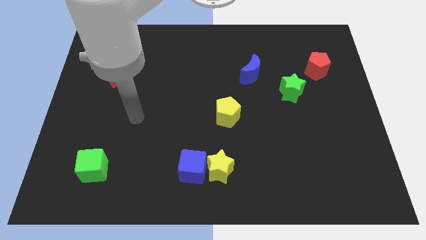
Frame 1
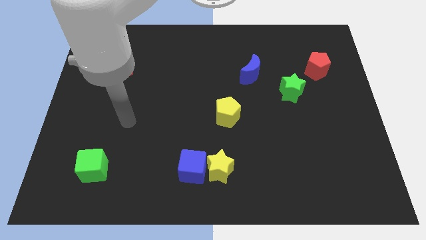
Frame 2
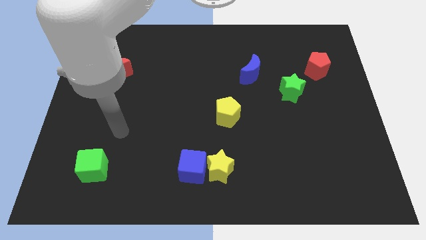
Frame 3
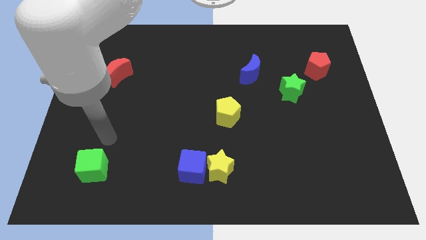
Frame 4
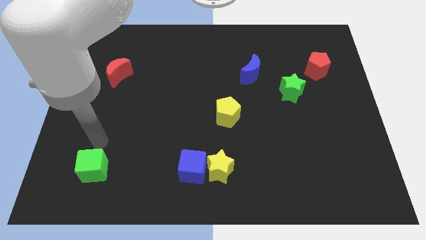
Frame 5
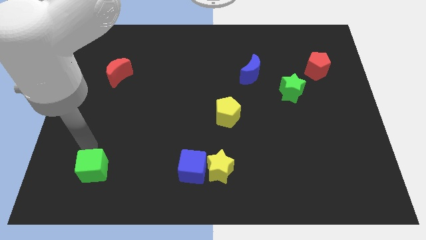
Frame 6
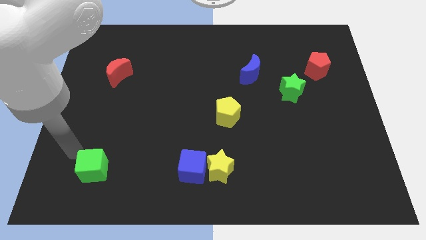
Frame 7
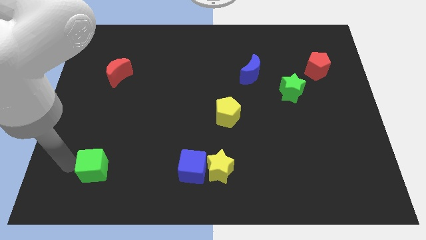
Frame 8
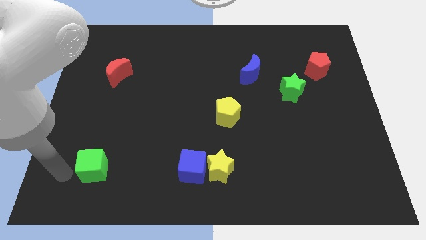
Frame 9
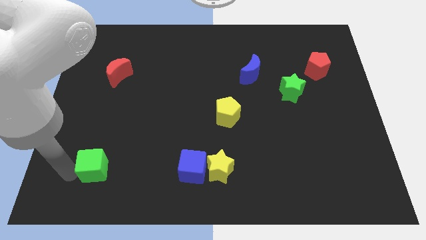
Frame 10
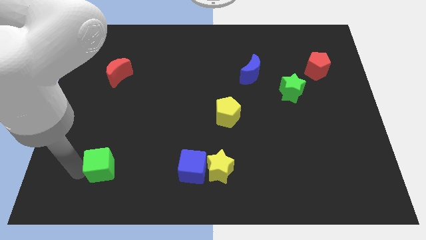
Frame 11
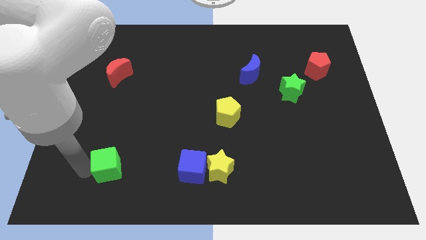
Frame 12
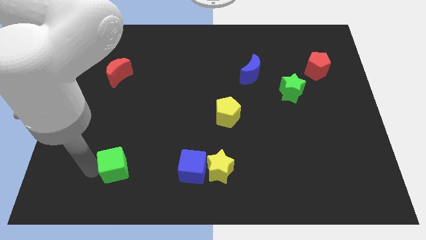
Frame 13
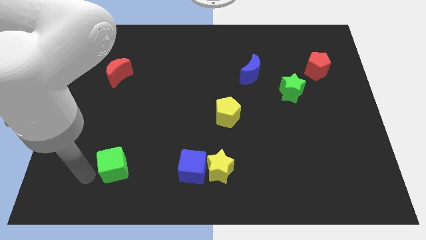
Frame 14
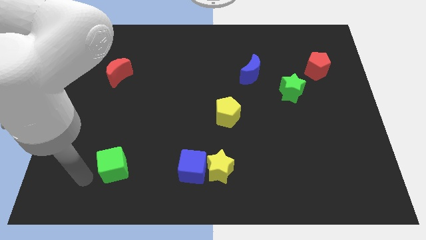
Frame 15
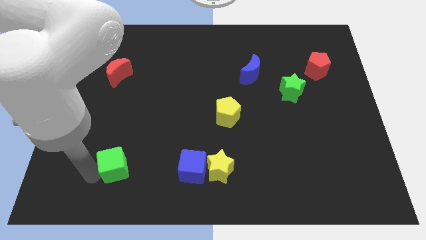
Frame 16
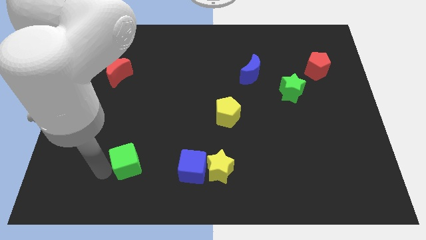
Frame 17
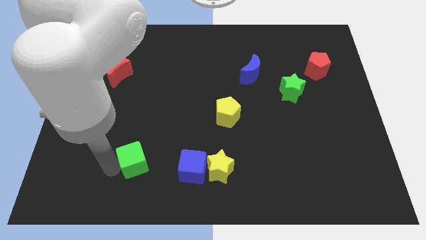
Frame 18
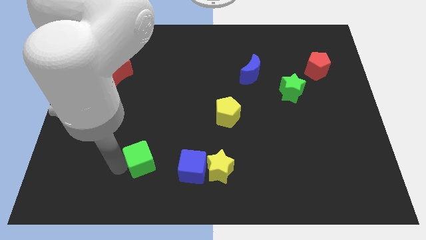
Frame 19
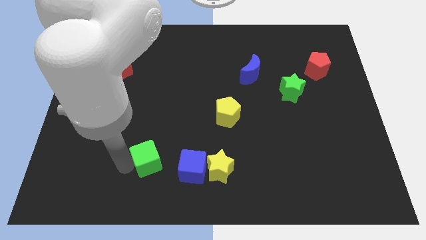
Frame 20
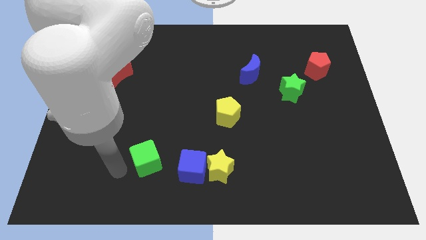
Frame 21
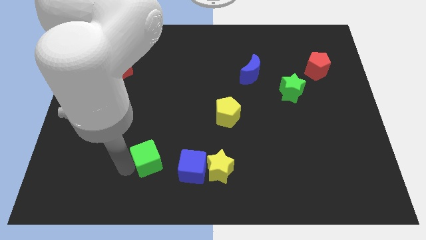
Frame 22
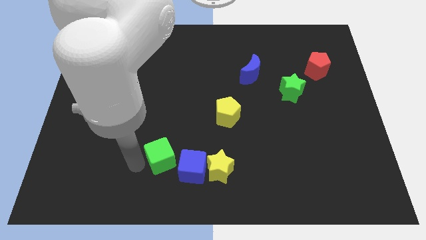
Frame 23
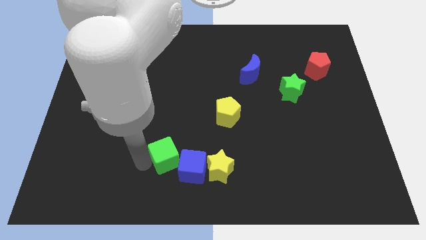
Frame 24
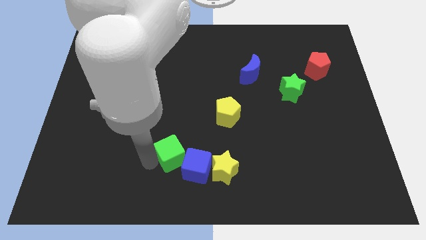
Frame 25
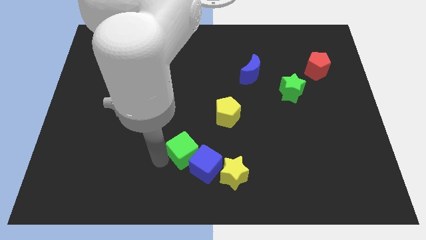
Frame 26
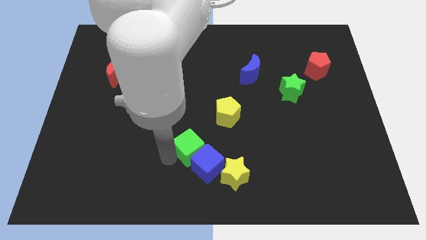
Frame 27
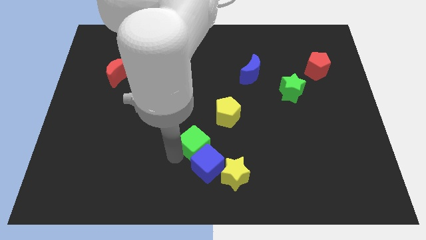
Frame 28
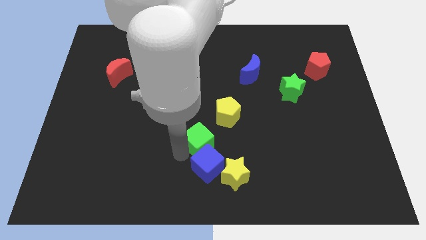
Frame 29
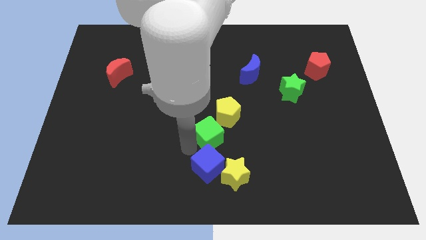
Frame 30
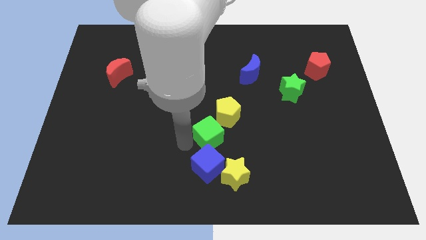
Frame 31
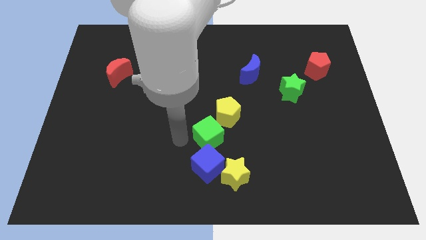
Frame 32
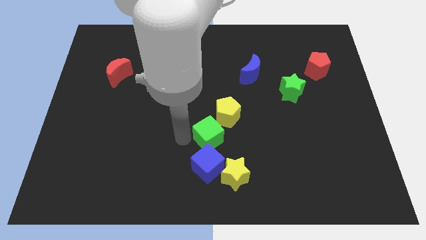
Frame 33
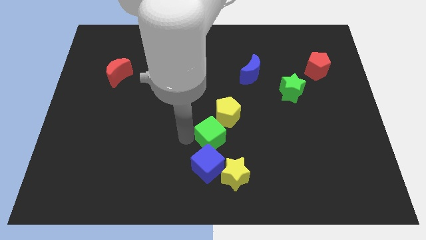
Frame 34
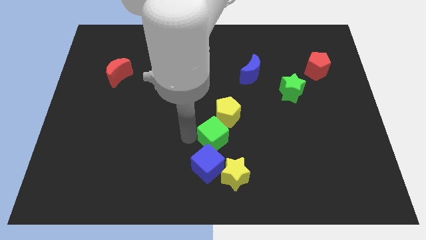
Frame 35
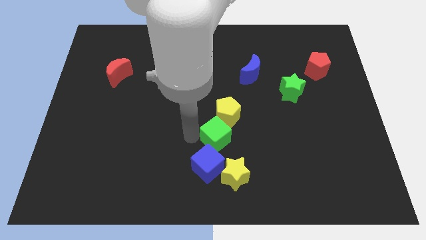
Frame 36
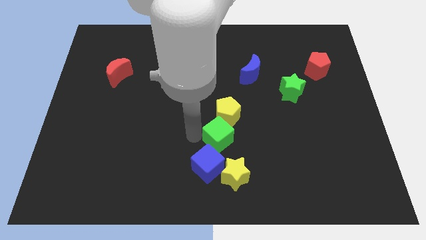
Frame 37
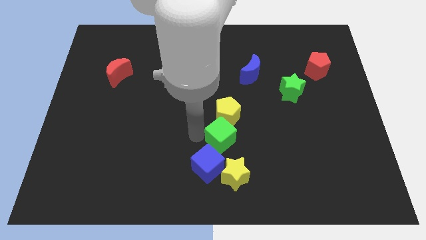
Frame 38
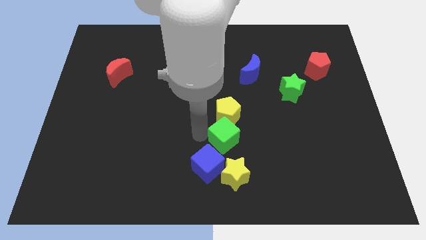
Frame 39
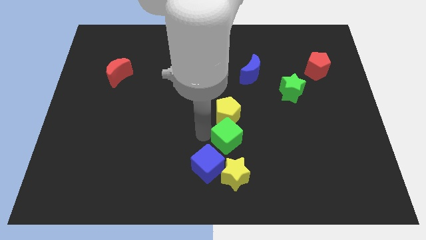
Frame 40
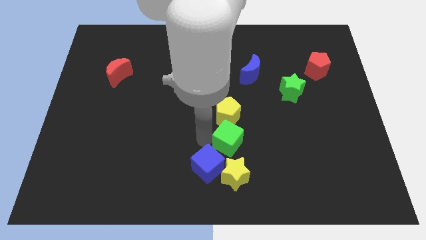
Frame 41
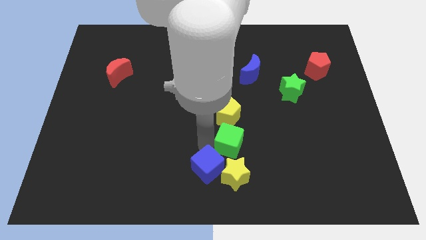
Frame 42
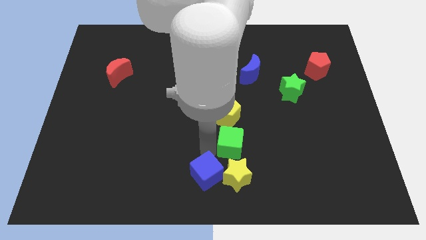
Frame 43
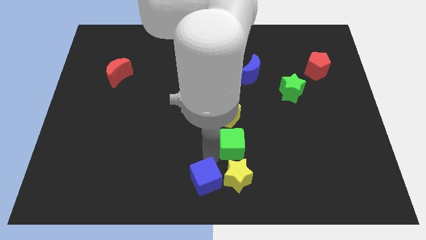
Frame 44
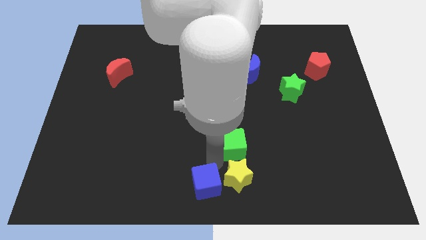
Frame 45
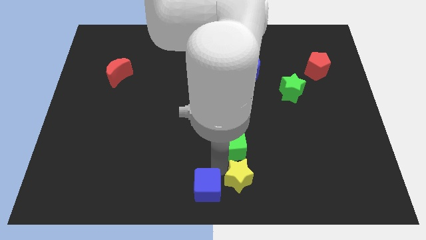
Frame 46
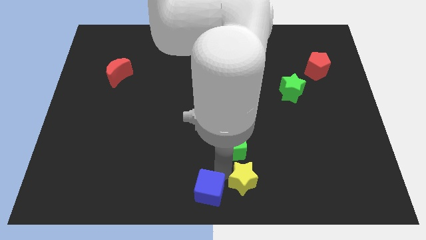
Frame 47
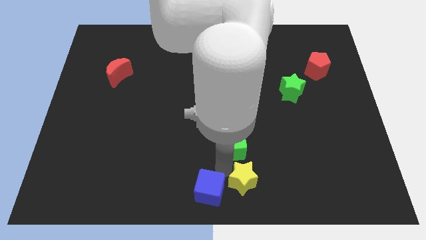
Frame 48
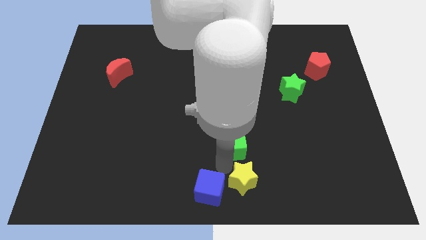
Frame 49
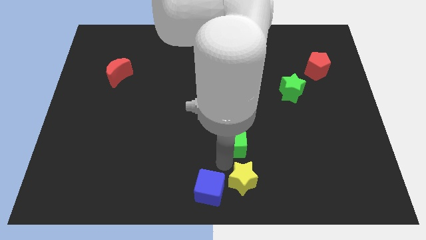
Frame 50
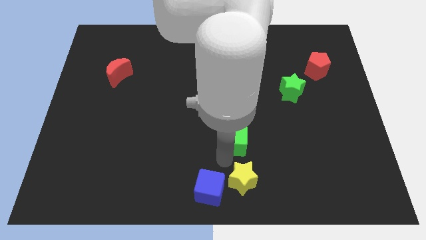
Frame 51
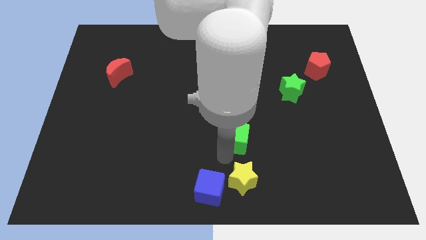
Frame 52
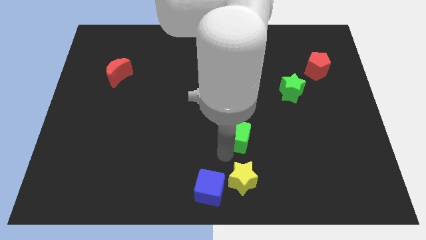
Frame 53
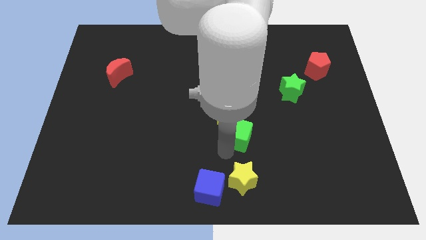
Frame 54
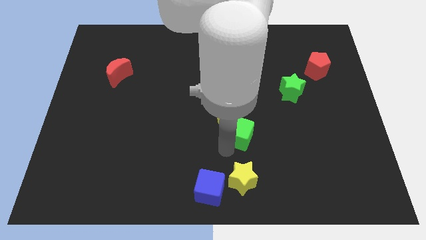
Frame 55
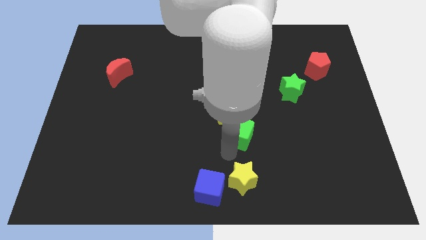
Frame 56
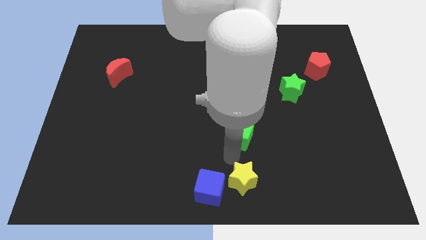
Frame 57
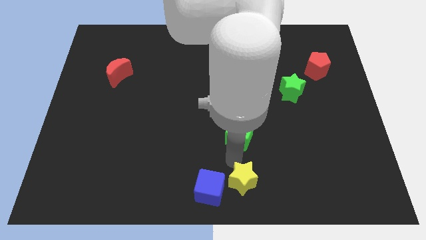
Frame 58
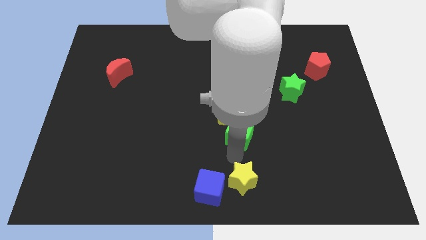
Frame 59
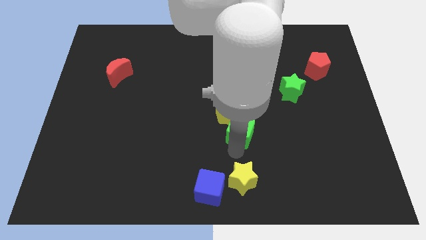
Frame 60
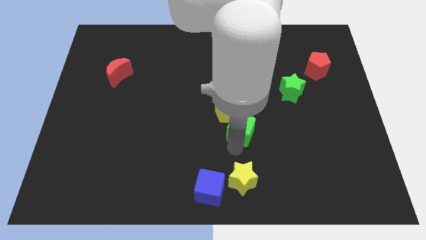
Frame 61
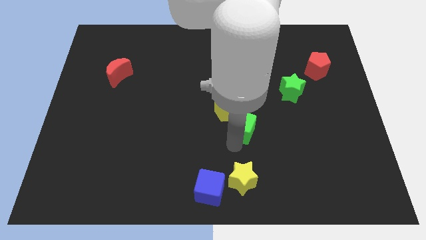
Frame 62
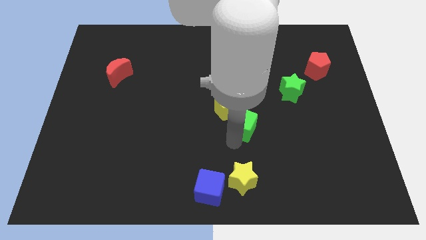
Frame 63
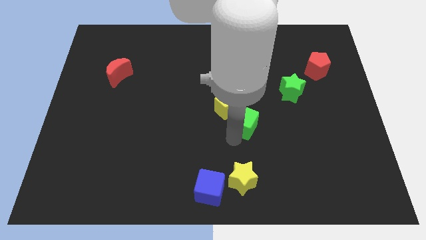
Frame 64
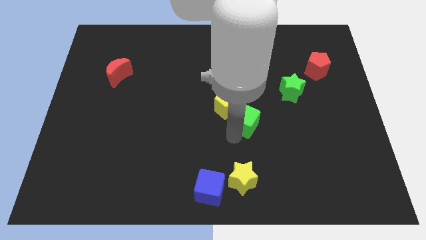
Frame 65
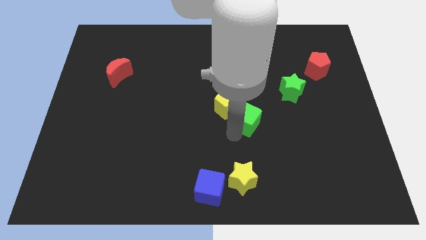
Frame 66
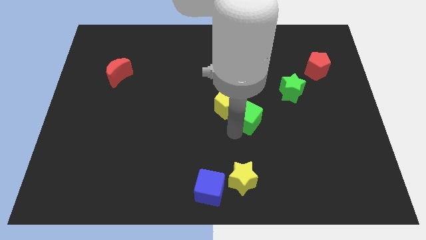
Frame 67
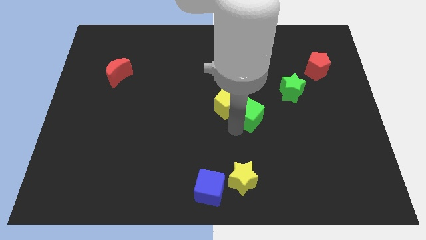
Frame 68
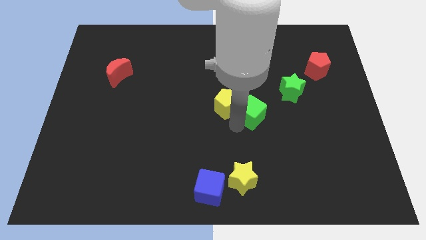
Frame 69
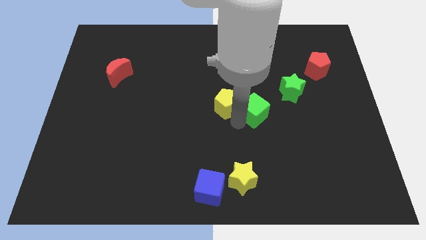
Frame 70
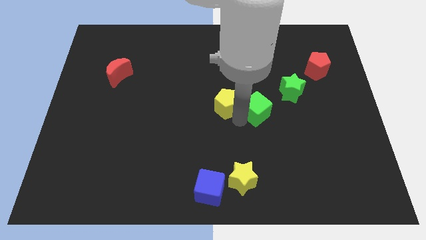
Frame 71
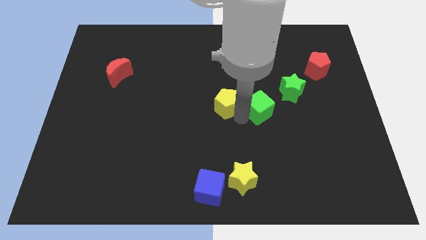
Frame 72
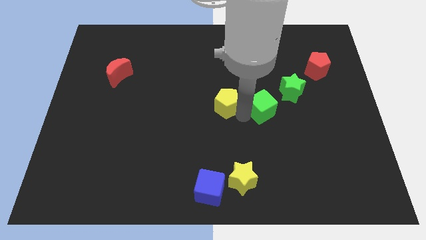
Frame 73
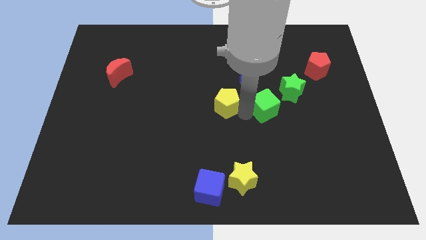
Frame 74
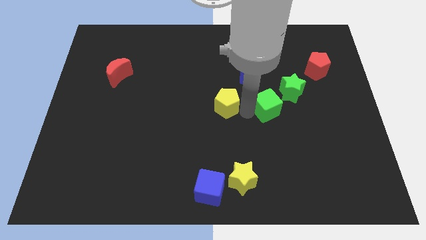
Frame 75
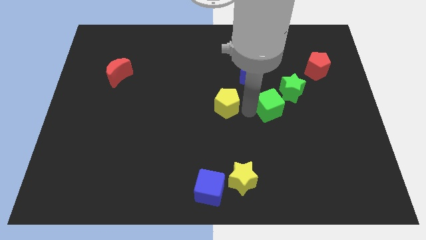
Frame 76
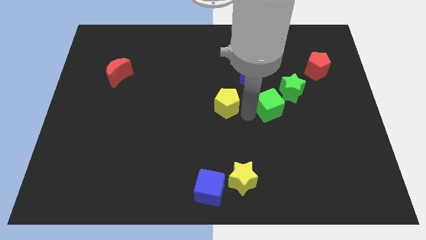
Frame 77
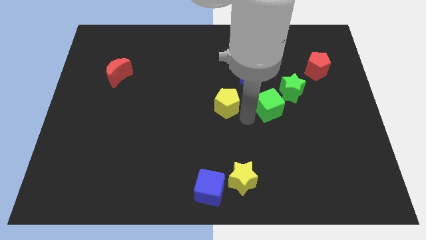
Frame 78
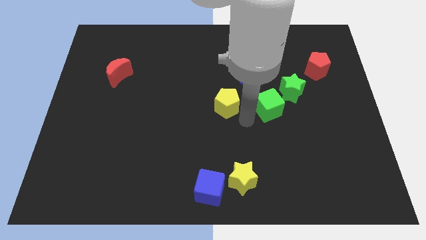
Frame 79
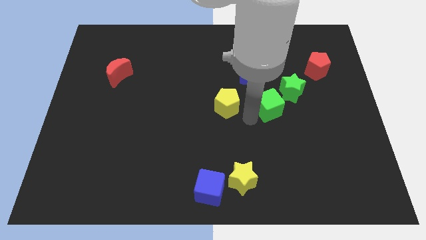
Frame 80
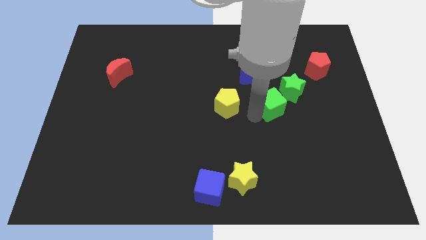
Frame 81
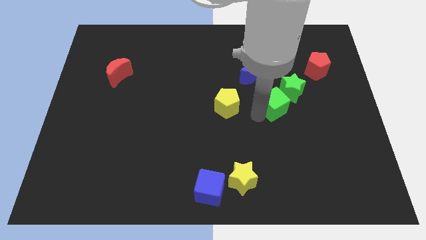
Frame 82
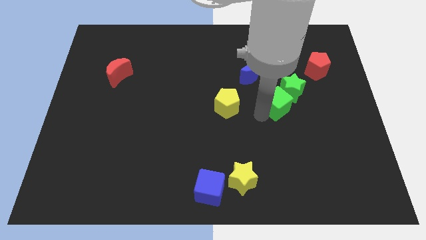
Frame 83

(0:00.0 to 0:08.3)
put the green cube next to the green star
